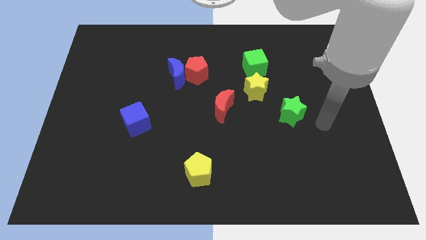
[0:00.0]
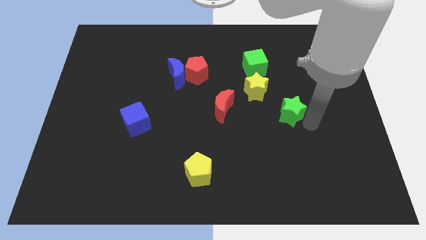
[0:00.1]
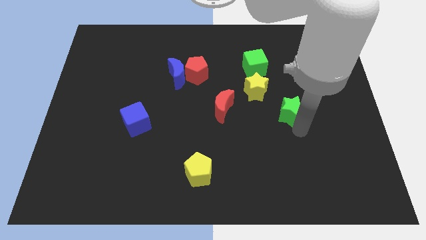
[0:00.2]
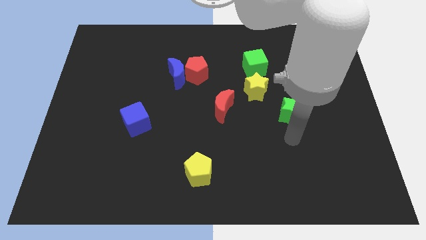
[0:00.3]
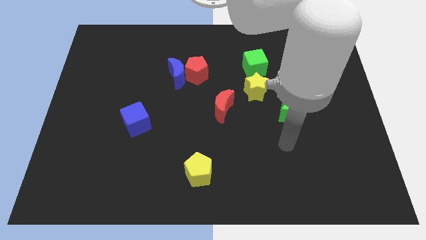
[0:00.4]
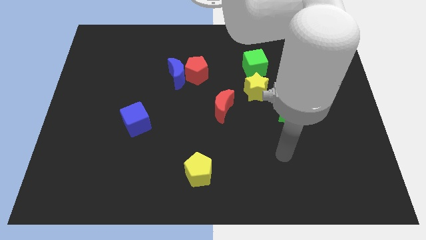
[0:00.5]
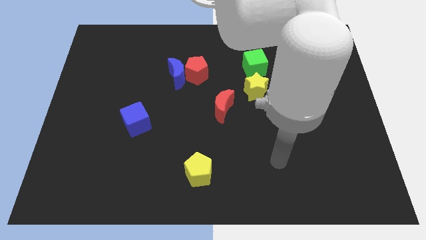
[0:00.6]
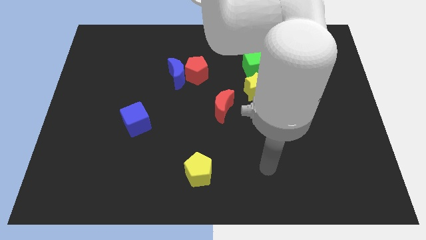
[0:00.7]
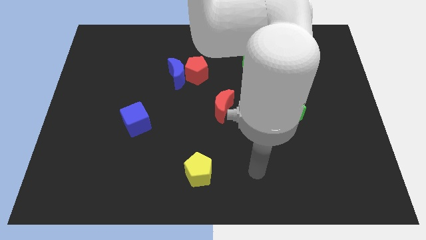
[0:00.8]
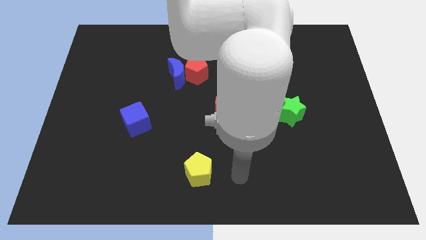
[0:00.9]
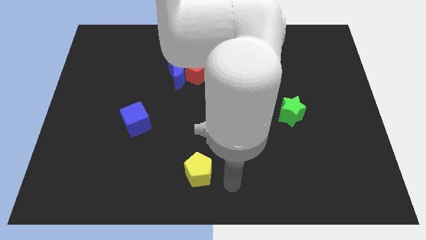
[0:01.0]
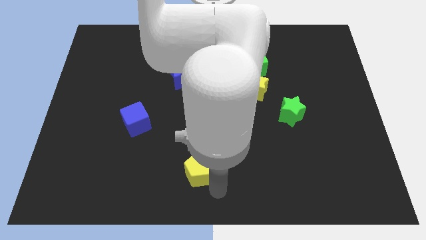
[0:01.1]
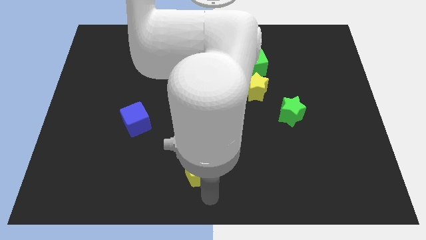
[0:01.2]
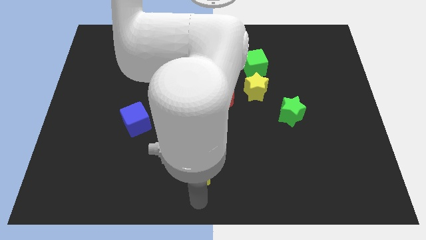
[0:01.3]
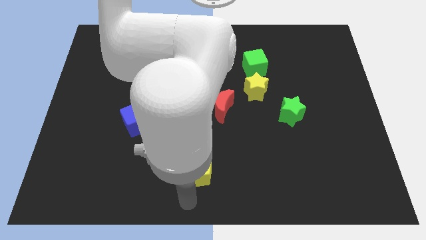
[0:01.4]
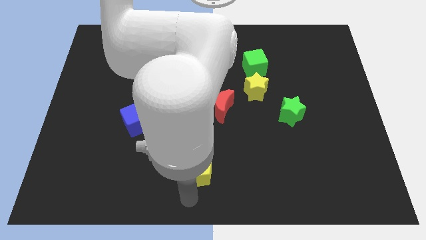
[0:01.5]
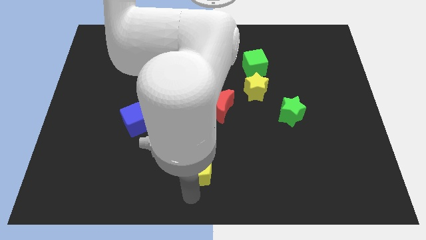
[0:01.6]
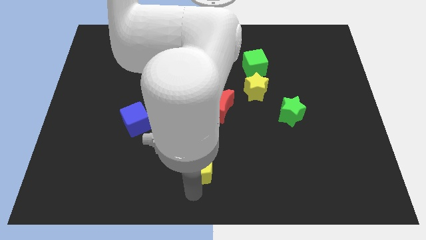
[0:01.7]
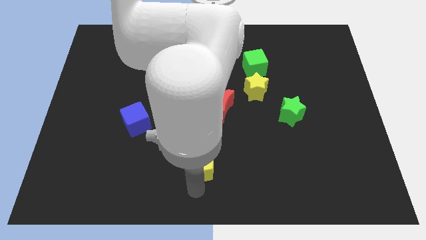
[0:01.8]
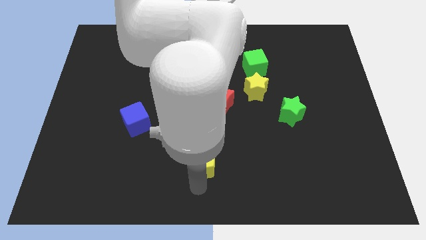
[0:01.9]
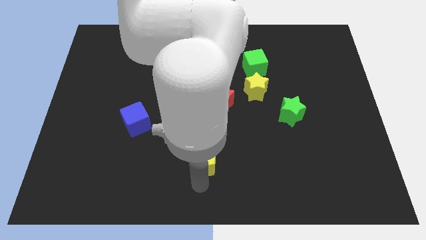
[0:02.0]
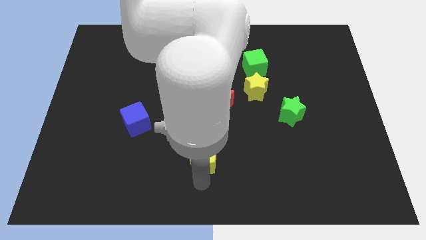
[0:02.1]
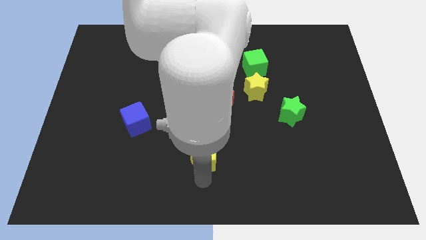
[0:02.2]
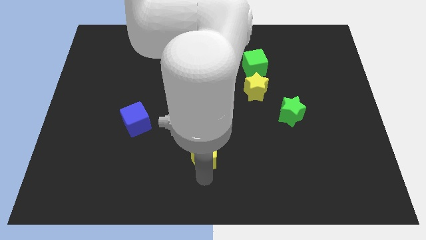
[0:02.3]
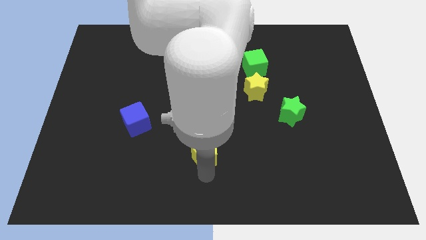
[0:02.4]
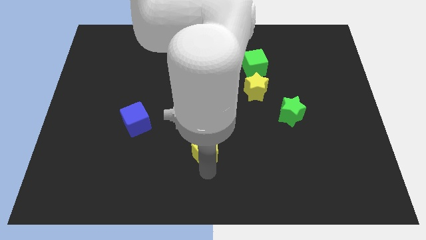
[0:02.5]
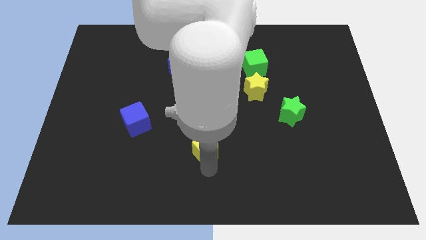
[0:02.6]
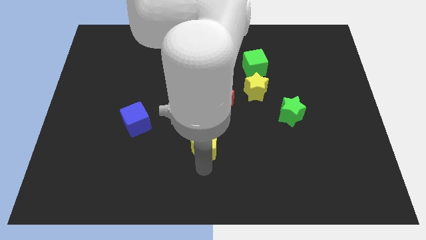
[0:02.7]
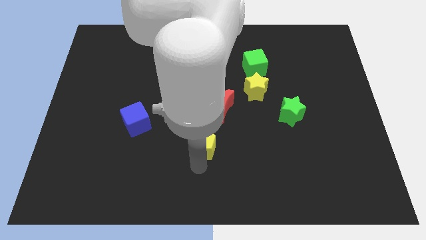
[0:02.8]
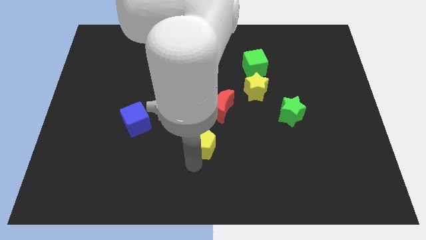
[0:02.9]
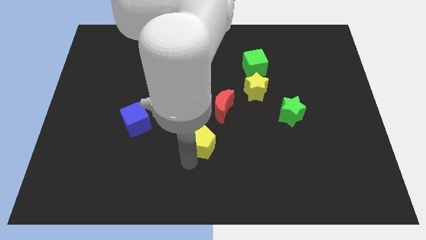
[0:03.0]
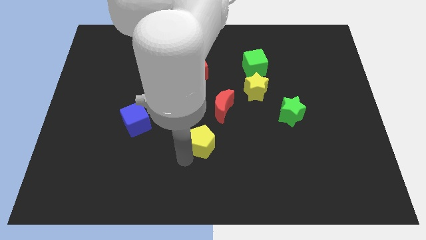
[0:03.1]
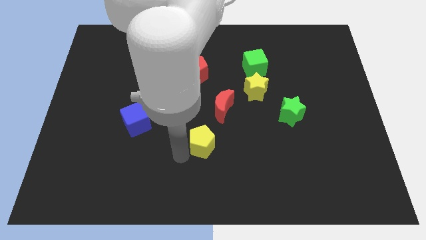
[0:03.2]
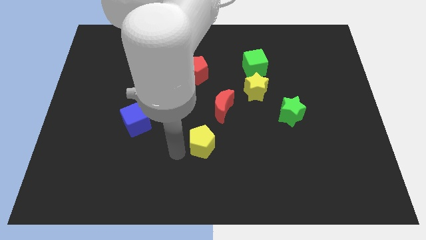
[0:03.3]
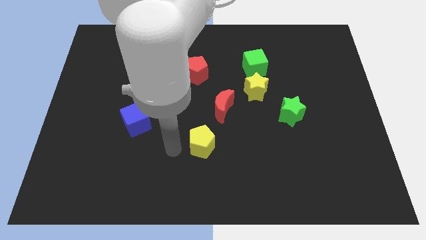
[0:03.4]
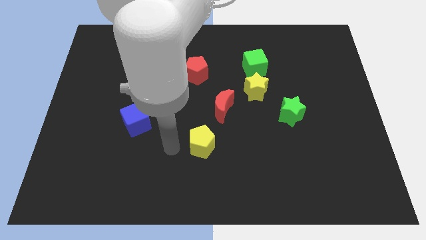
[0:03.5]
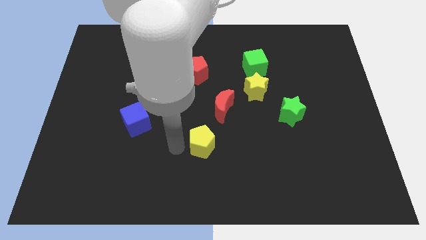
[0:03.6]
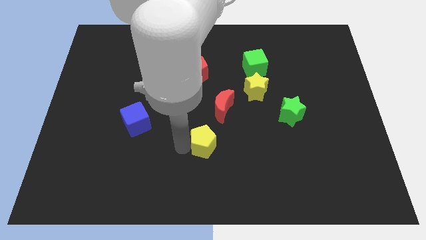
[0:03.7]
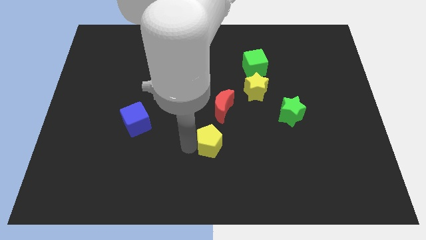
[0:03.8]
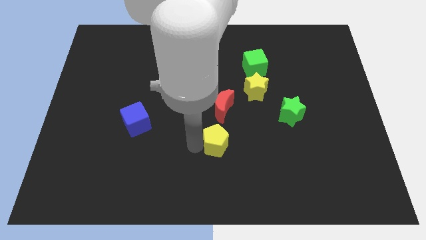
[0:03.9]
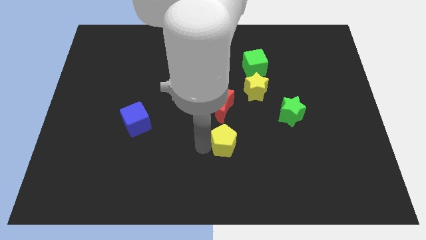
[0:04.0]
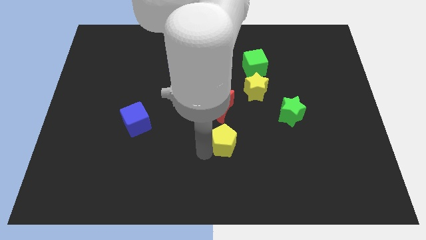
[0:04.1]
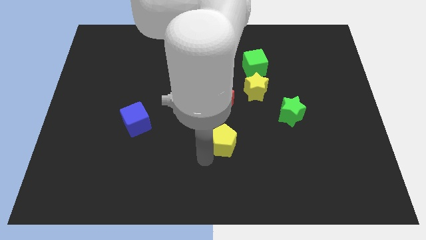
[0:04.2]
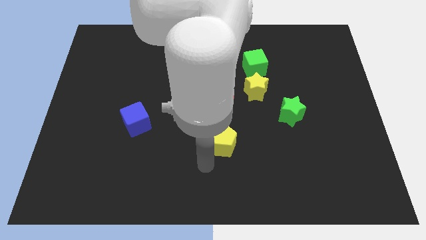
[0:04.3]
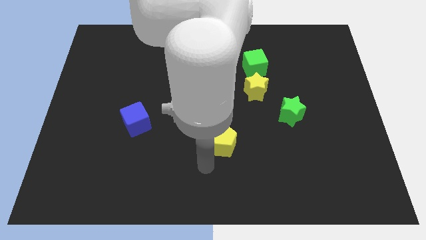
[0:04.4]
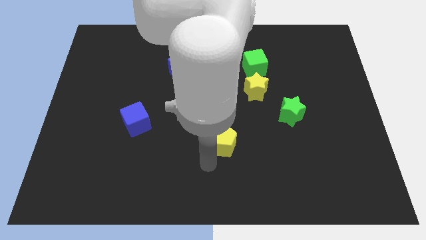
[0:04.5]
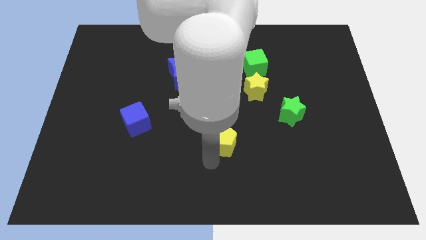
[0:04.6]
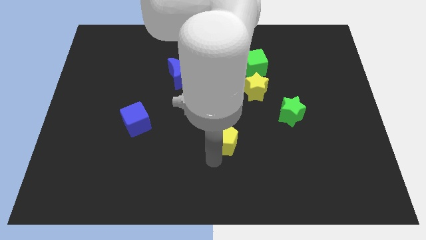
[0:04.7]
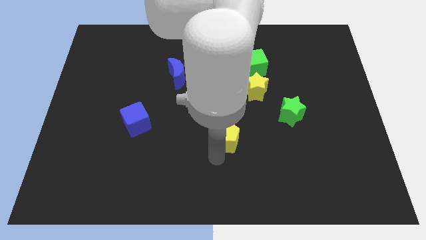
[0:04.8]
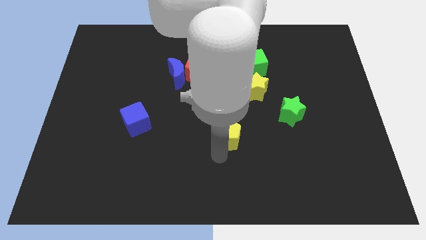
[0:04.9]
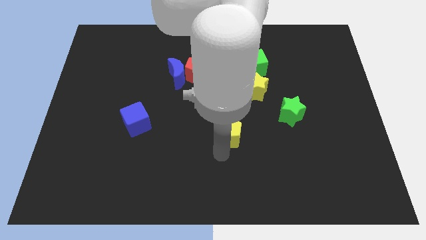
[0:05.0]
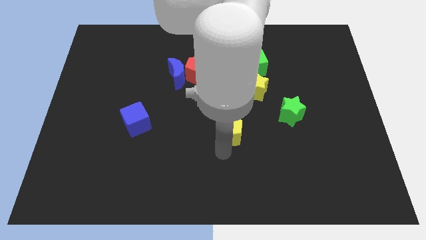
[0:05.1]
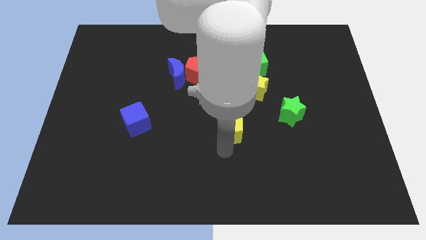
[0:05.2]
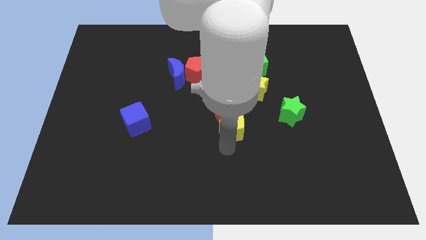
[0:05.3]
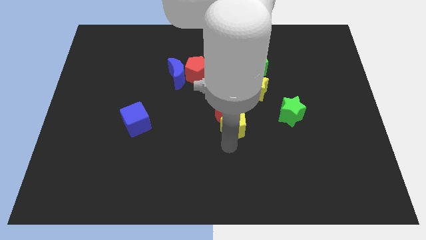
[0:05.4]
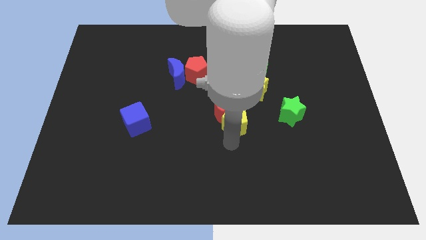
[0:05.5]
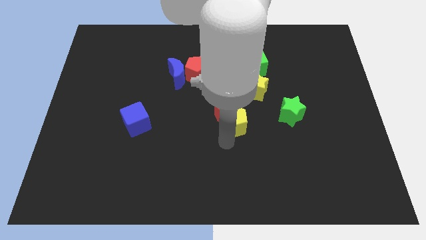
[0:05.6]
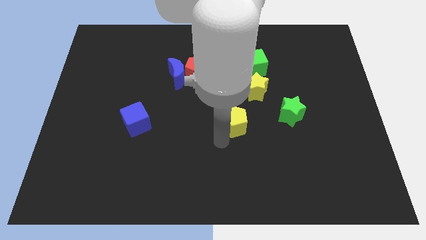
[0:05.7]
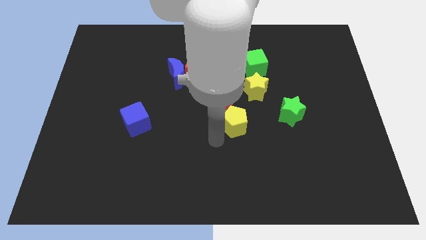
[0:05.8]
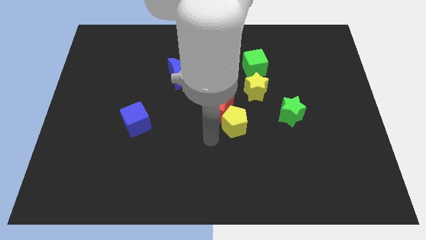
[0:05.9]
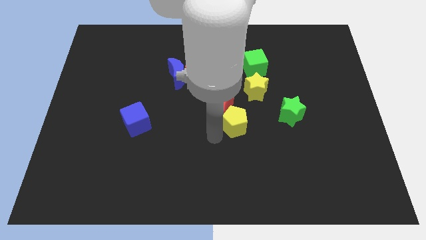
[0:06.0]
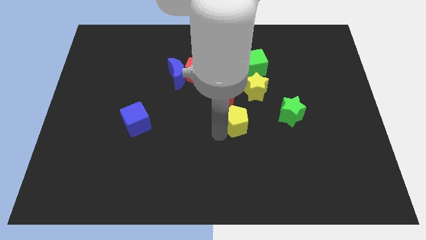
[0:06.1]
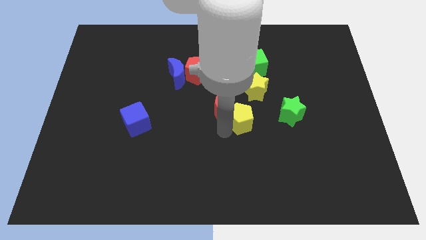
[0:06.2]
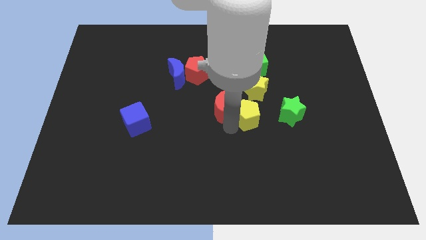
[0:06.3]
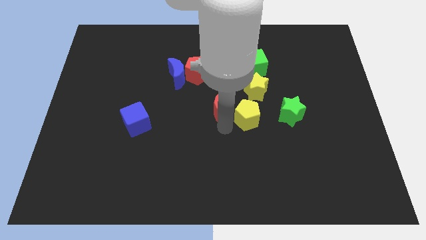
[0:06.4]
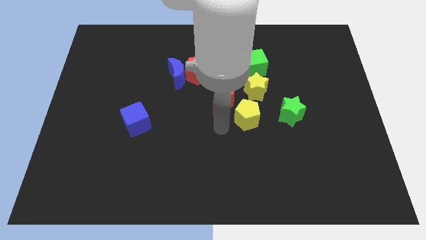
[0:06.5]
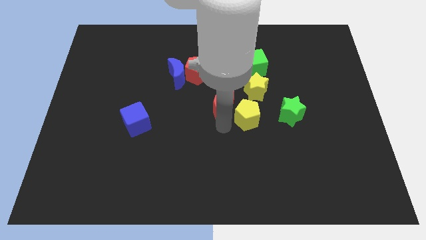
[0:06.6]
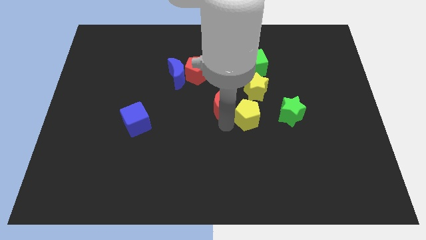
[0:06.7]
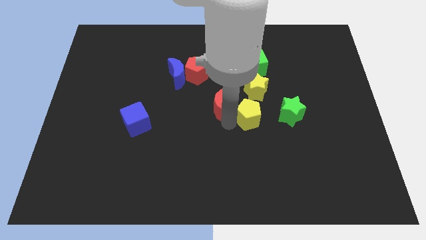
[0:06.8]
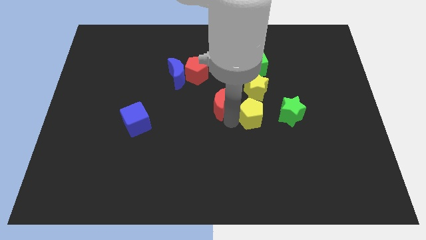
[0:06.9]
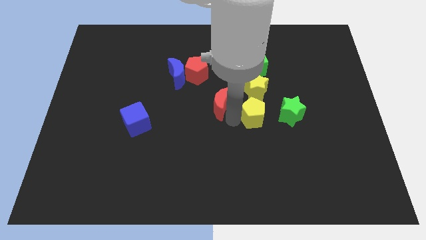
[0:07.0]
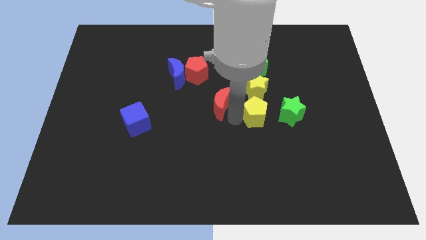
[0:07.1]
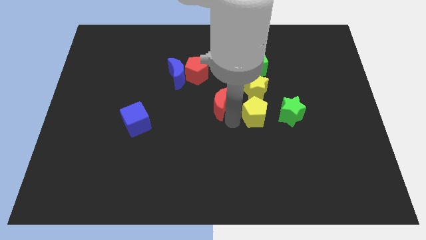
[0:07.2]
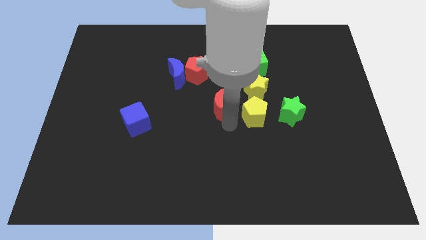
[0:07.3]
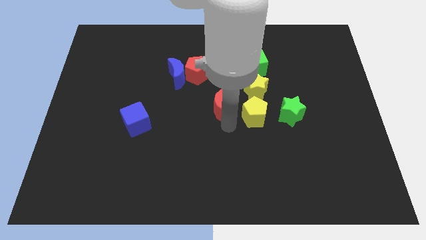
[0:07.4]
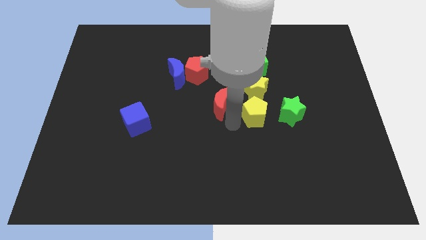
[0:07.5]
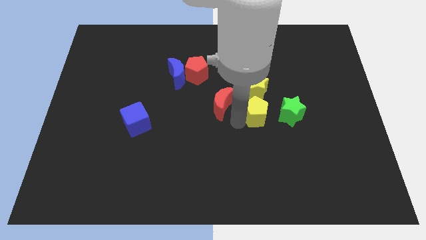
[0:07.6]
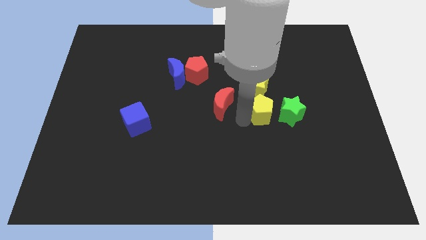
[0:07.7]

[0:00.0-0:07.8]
move the yellow pentagon up and then right
